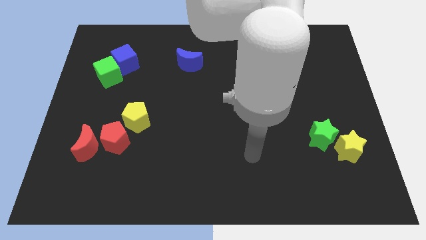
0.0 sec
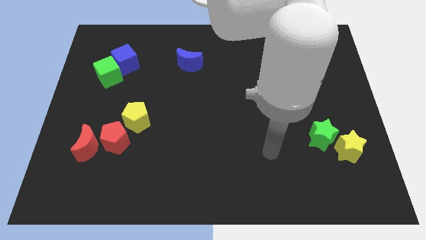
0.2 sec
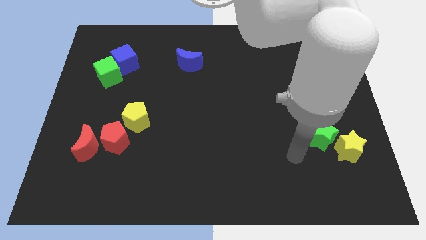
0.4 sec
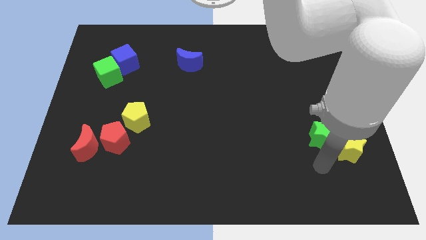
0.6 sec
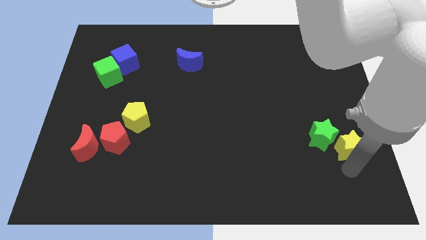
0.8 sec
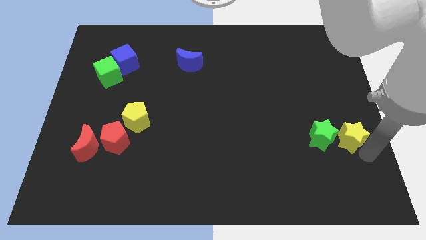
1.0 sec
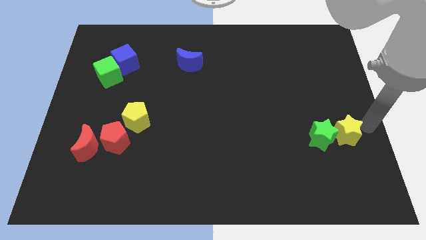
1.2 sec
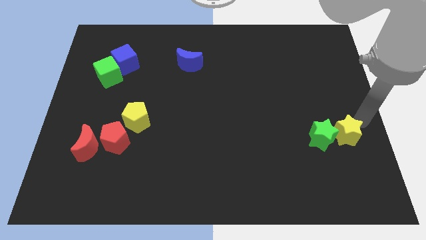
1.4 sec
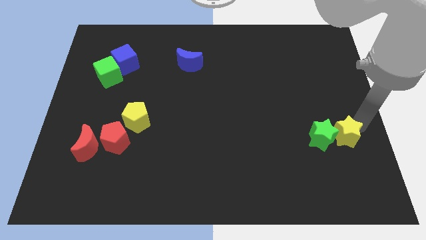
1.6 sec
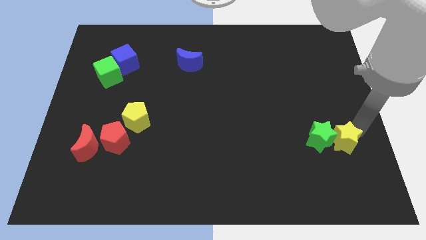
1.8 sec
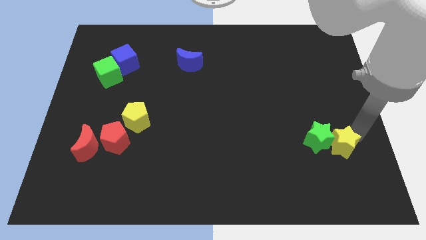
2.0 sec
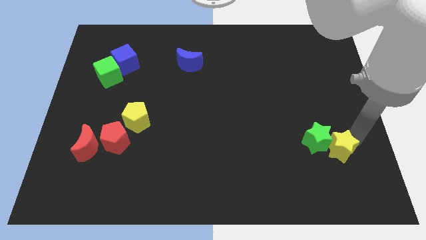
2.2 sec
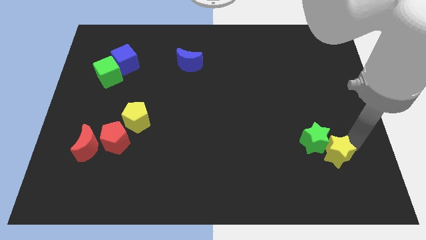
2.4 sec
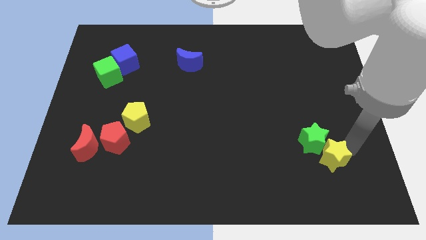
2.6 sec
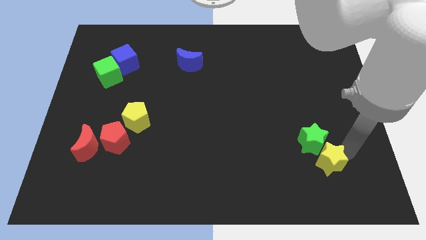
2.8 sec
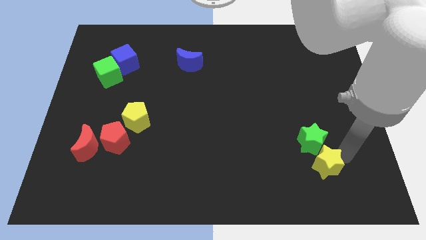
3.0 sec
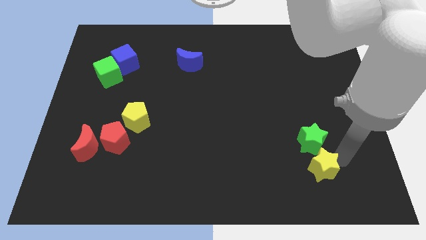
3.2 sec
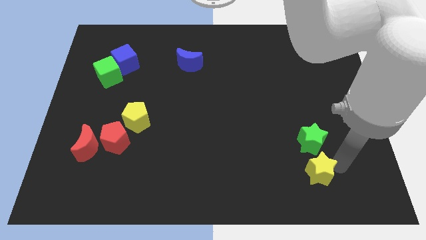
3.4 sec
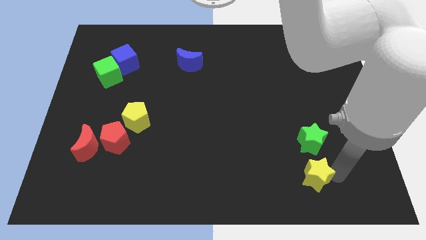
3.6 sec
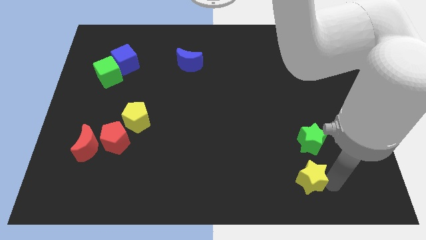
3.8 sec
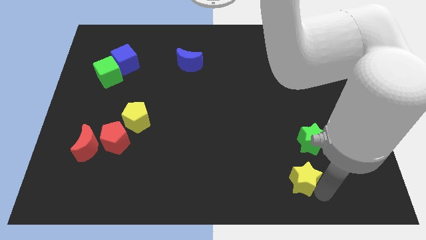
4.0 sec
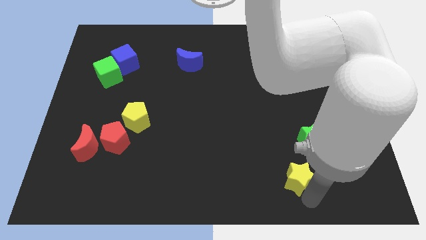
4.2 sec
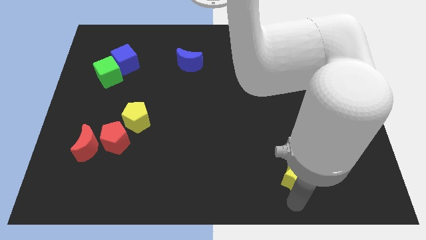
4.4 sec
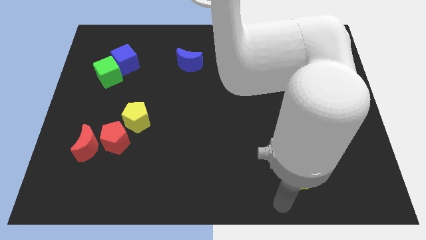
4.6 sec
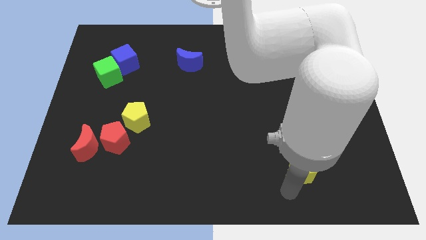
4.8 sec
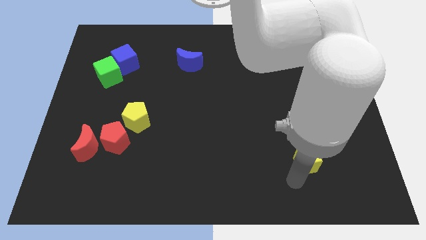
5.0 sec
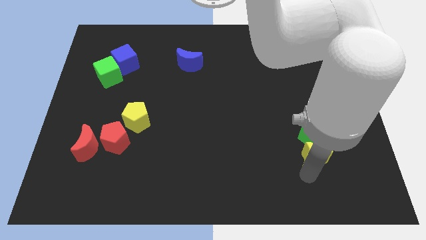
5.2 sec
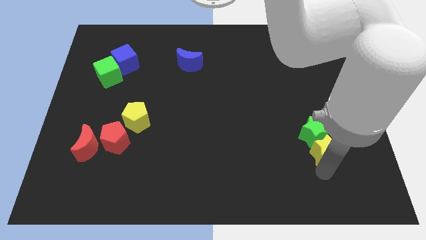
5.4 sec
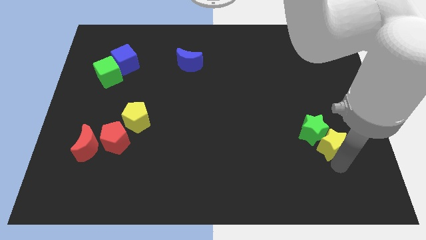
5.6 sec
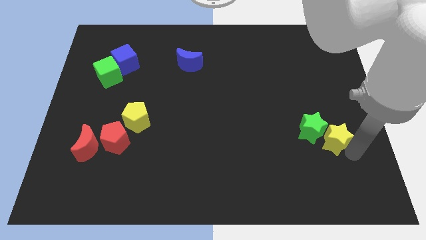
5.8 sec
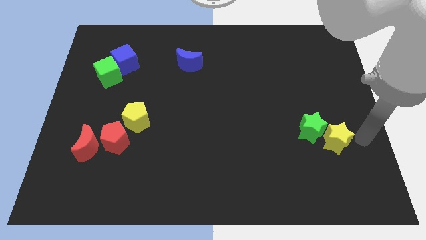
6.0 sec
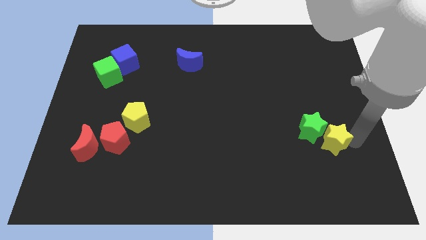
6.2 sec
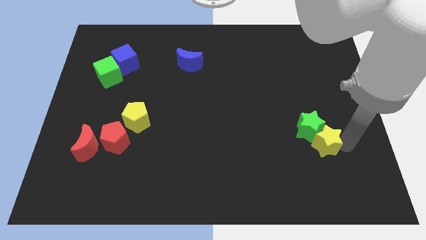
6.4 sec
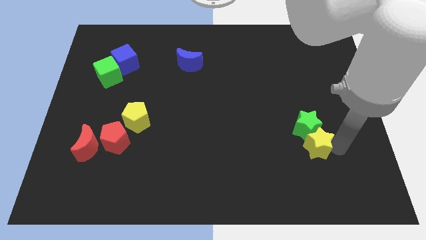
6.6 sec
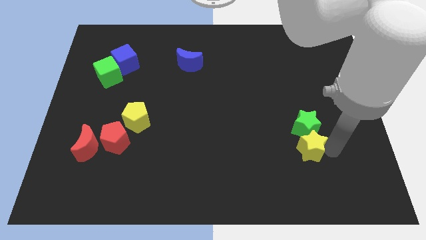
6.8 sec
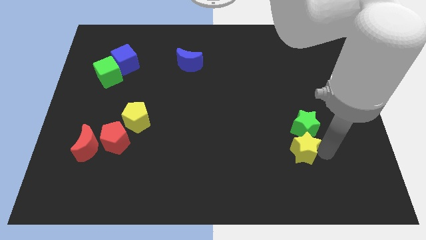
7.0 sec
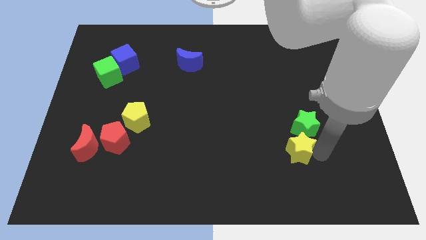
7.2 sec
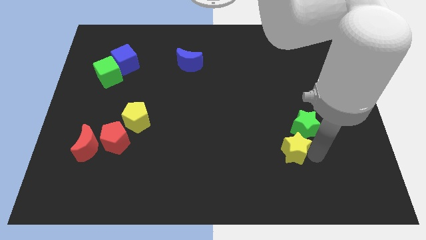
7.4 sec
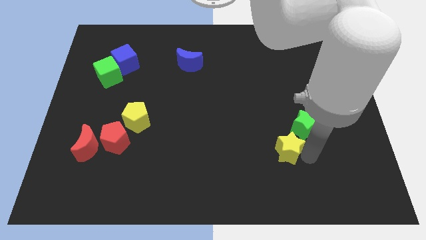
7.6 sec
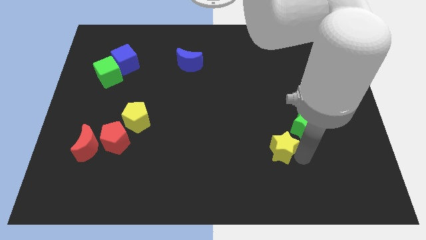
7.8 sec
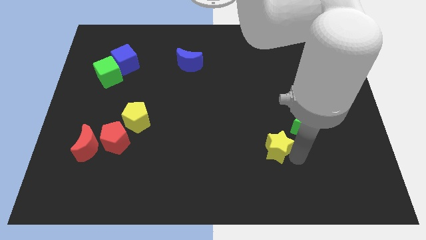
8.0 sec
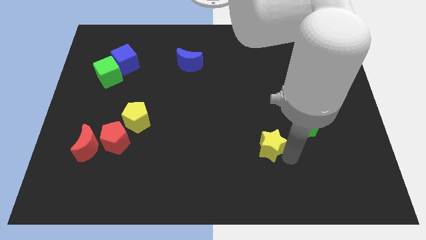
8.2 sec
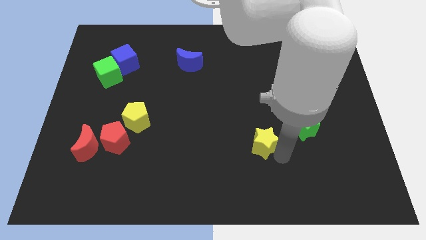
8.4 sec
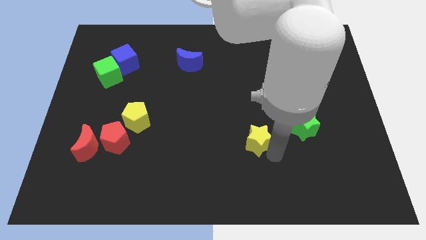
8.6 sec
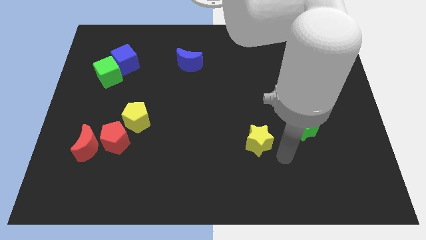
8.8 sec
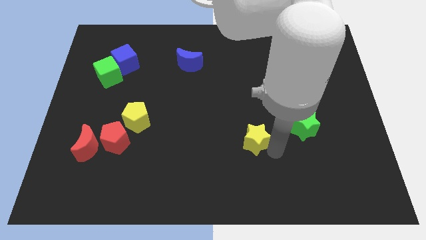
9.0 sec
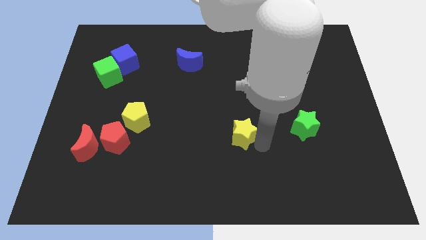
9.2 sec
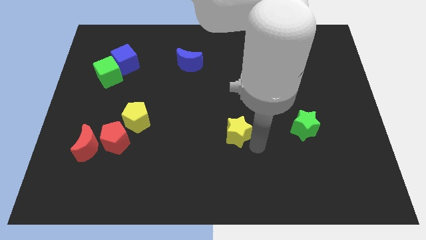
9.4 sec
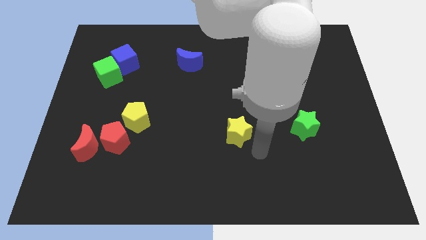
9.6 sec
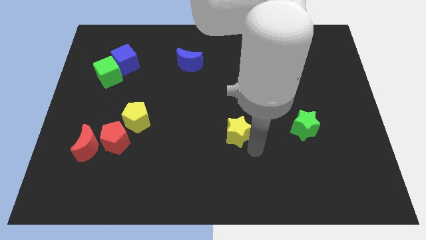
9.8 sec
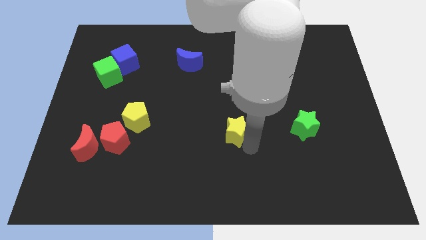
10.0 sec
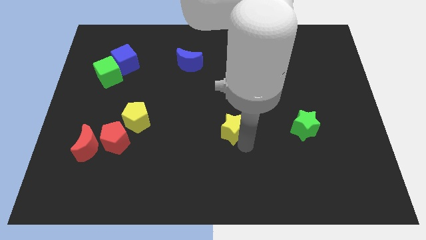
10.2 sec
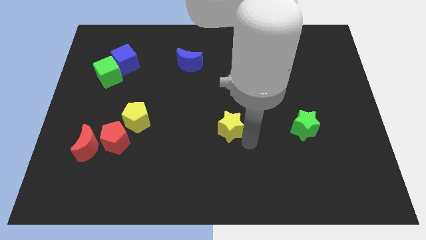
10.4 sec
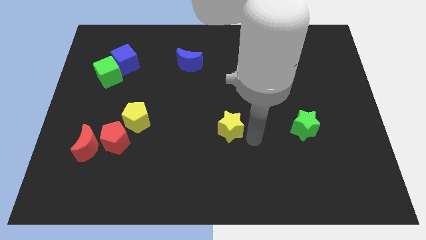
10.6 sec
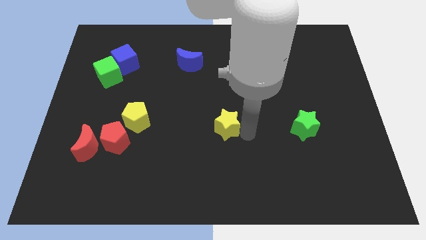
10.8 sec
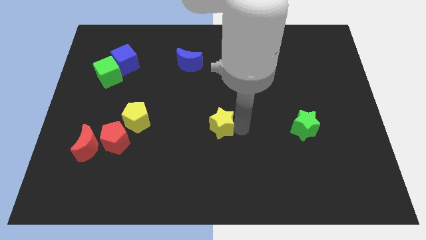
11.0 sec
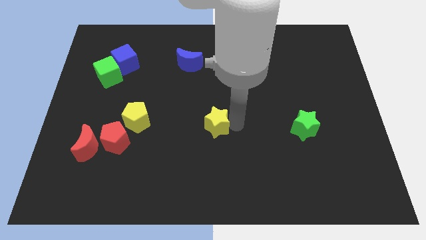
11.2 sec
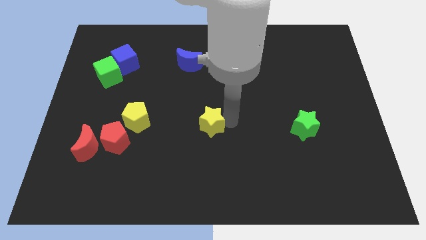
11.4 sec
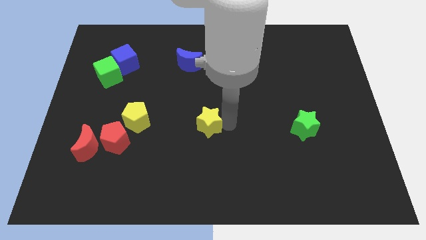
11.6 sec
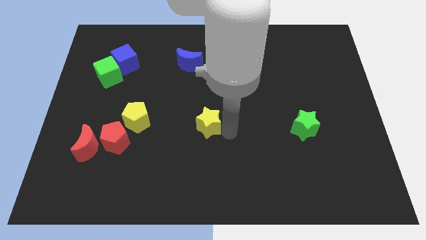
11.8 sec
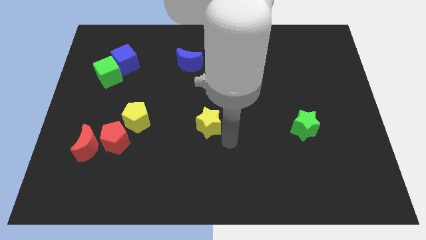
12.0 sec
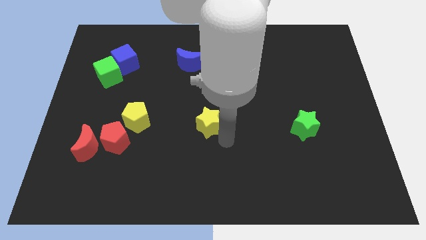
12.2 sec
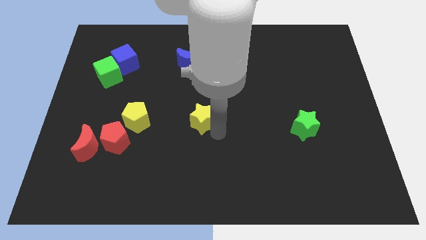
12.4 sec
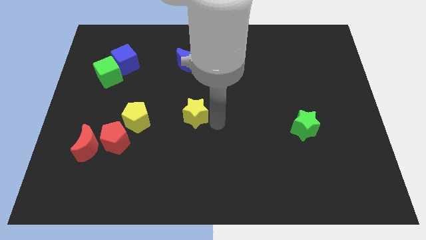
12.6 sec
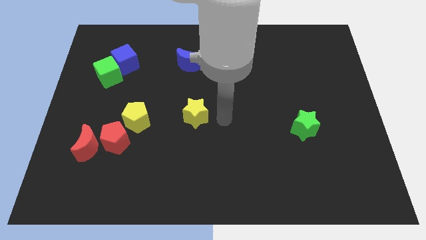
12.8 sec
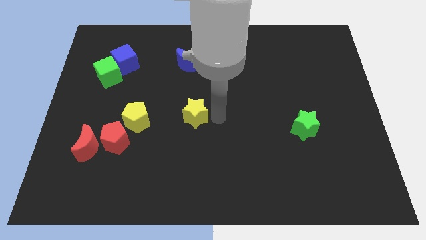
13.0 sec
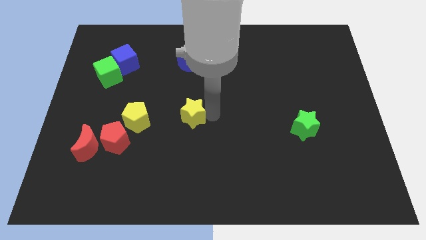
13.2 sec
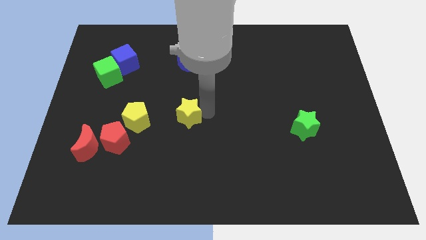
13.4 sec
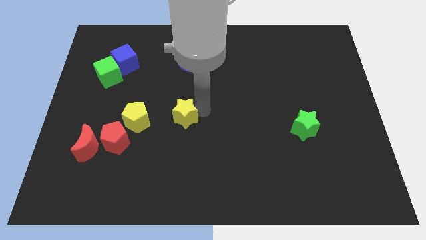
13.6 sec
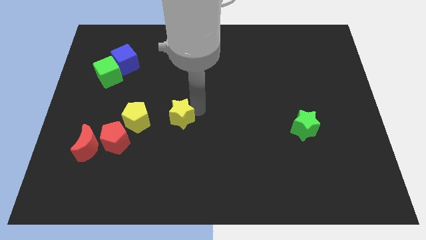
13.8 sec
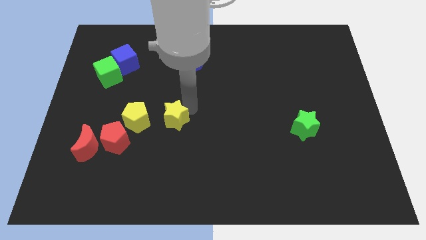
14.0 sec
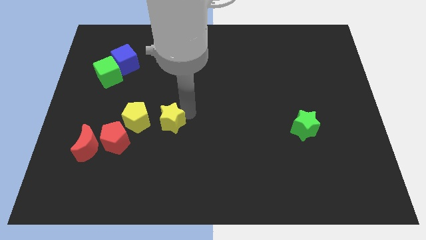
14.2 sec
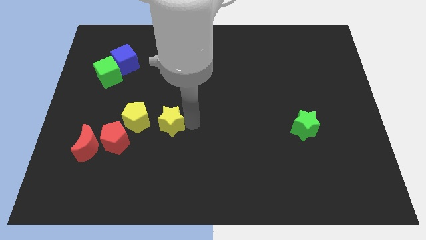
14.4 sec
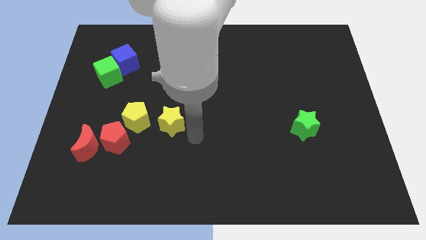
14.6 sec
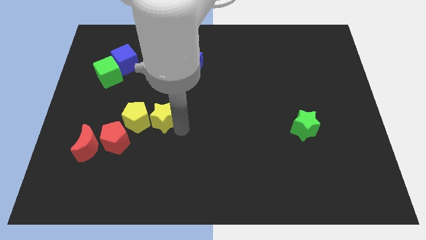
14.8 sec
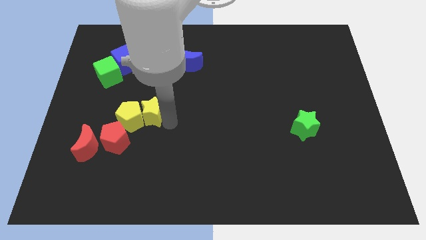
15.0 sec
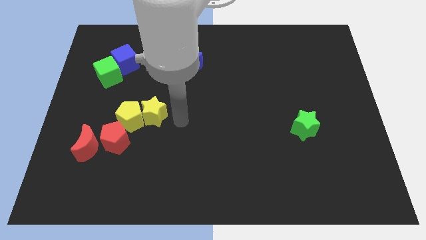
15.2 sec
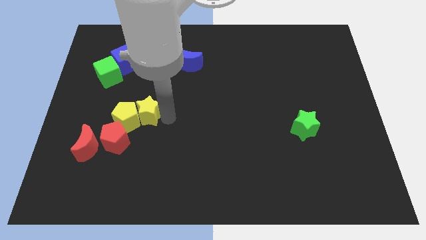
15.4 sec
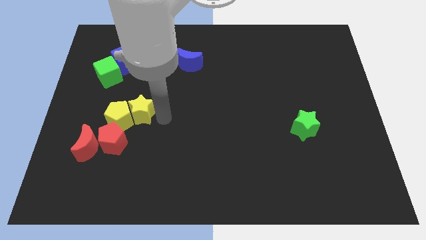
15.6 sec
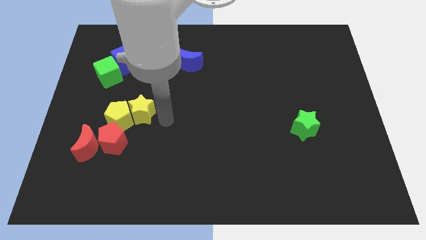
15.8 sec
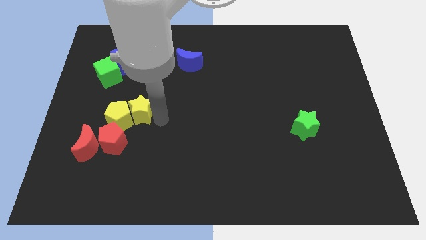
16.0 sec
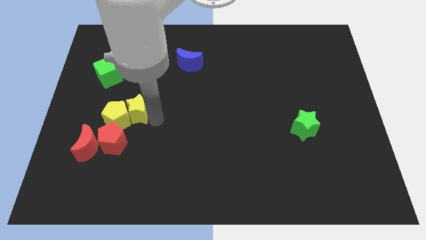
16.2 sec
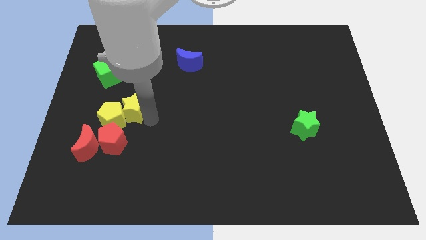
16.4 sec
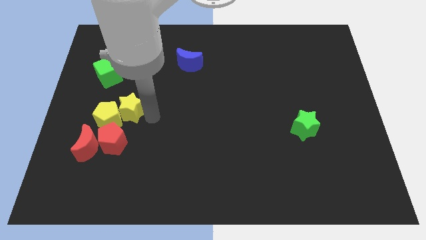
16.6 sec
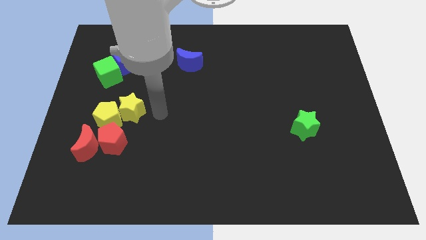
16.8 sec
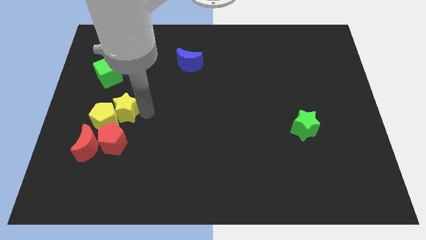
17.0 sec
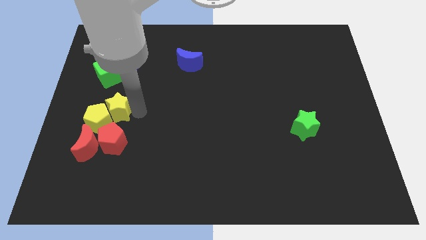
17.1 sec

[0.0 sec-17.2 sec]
move the yellow star to the bottom of the green cube
